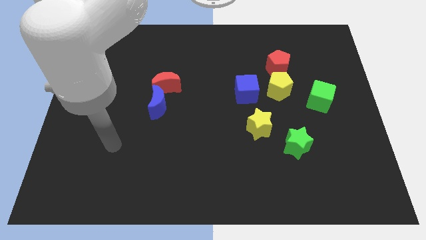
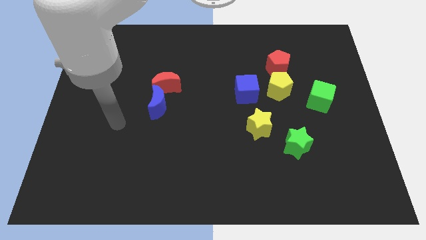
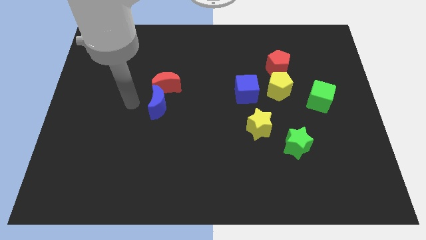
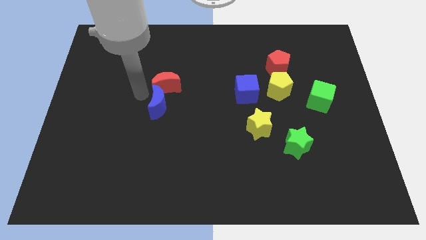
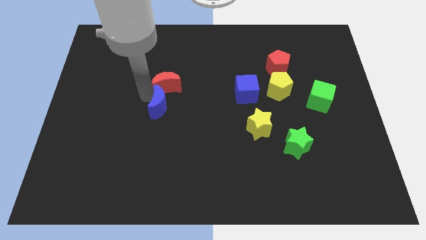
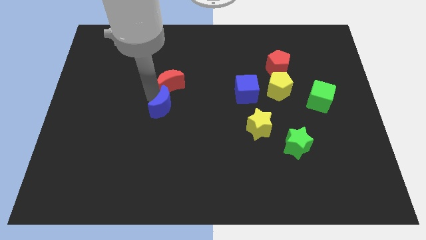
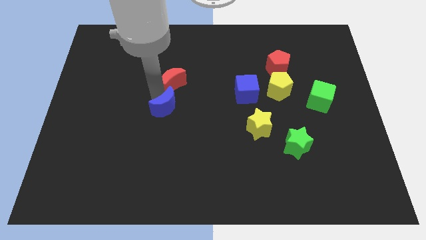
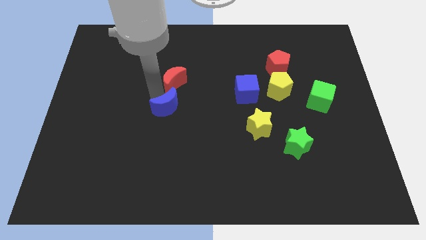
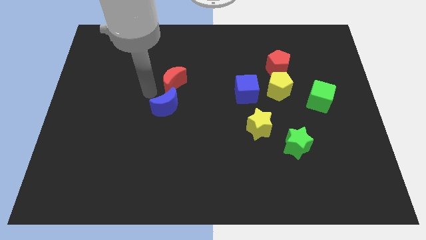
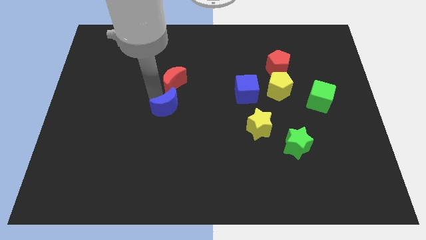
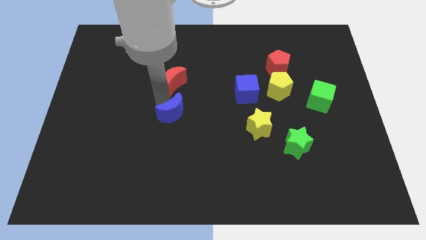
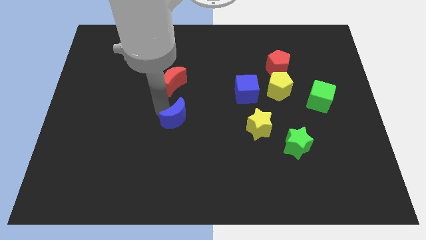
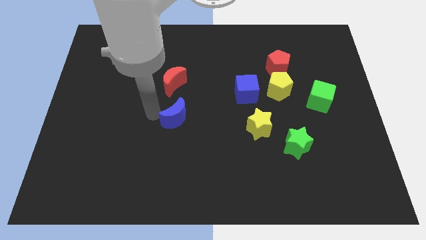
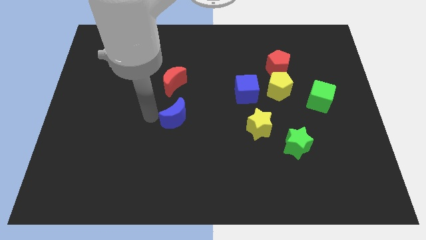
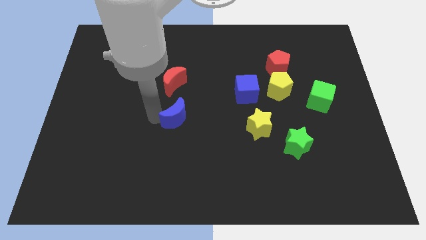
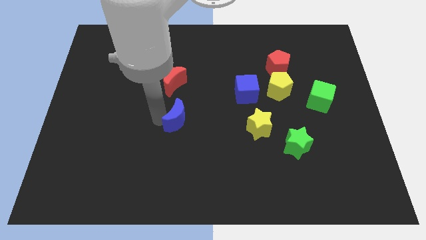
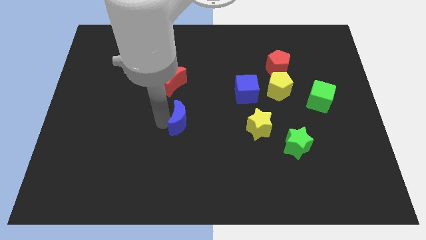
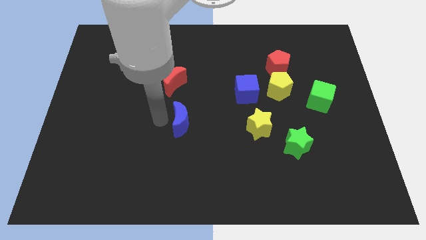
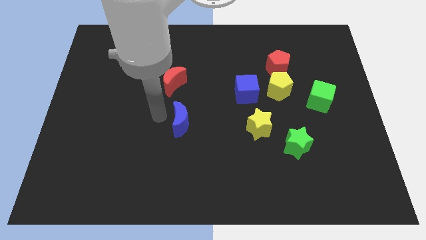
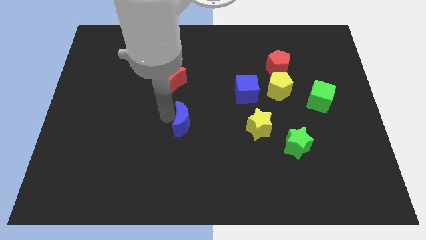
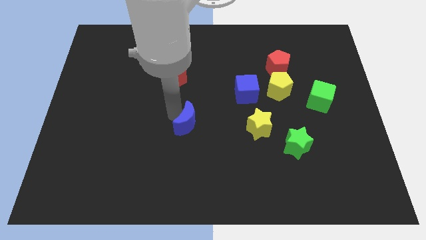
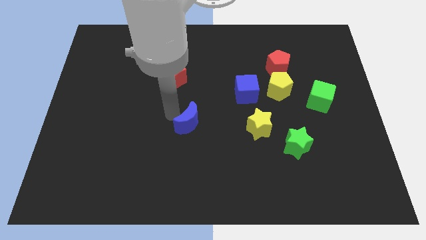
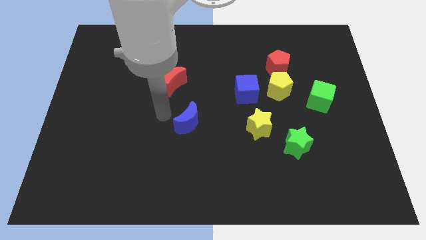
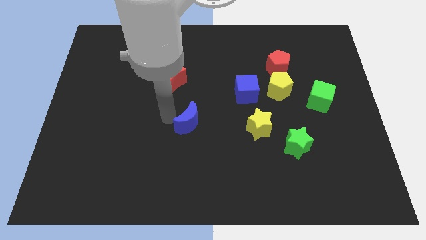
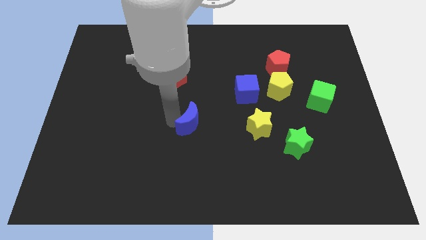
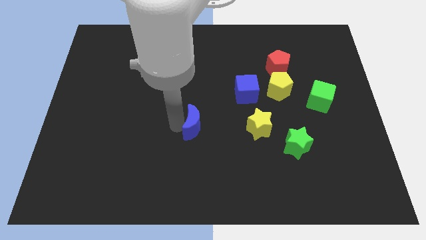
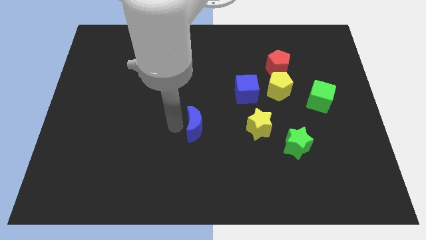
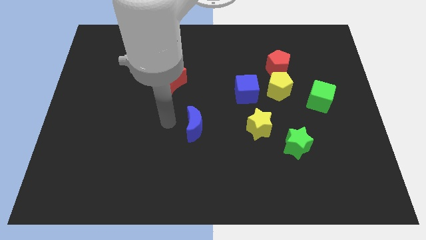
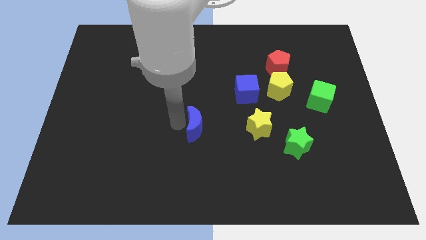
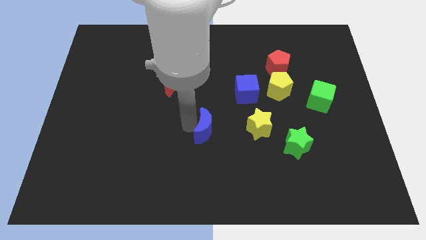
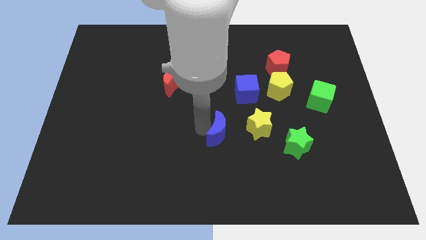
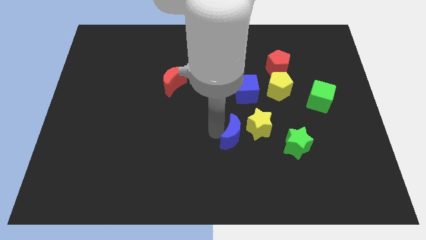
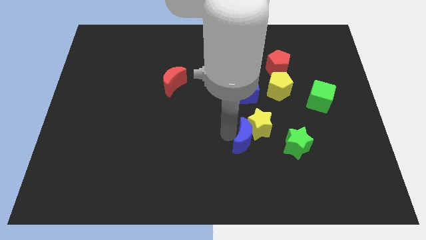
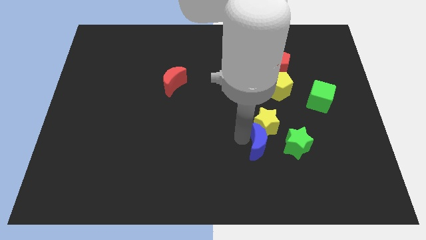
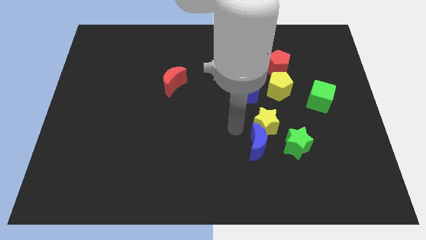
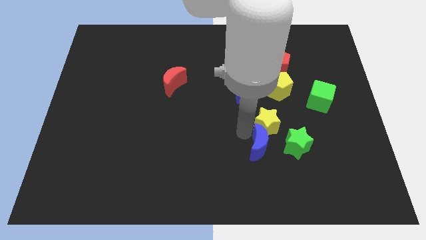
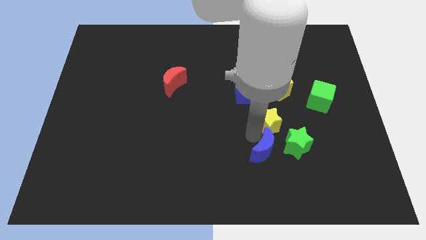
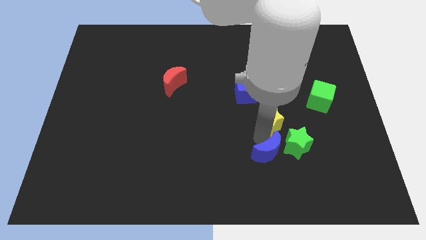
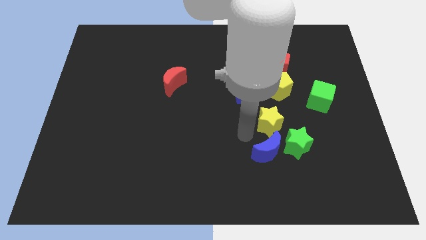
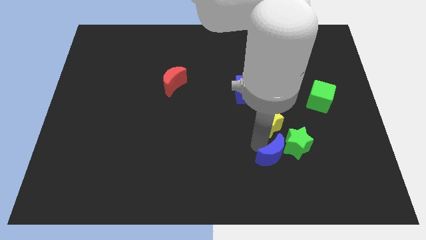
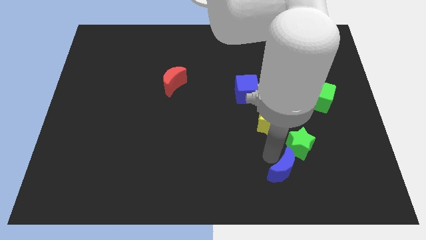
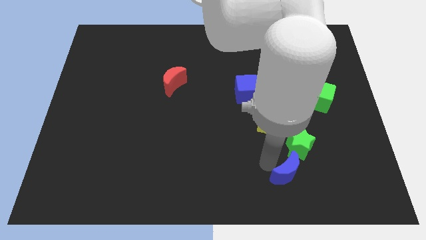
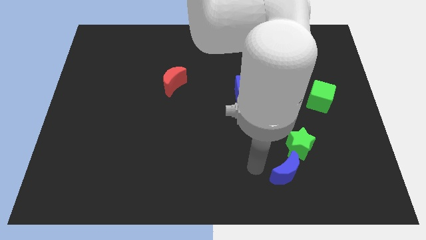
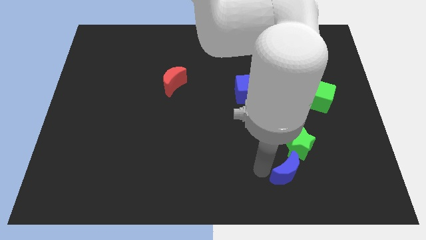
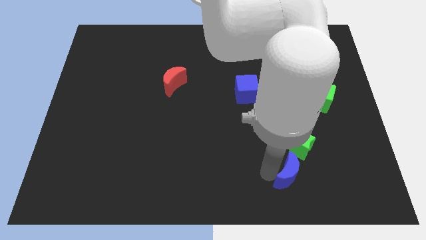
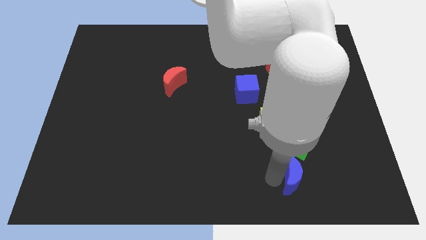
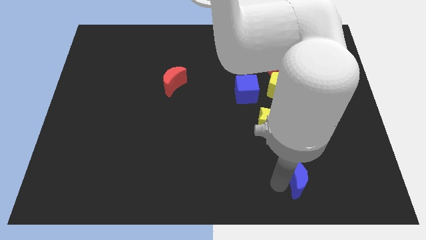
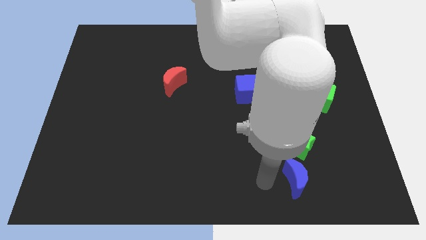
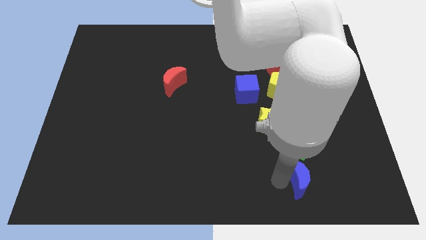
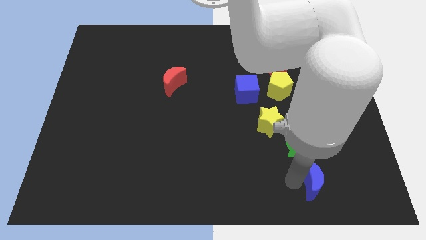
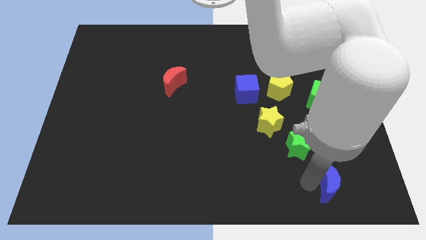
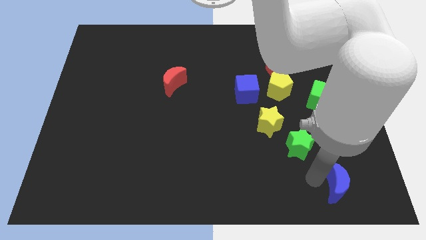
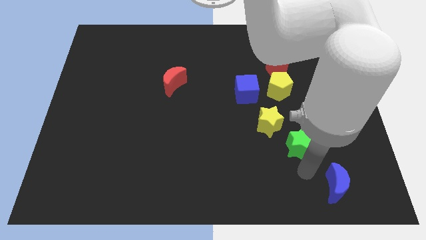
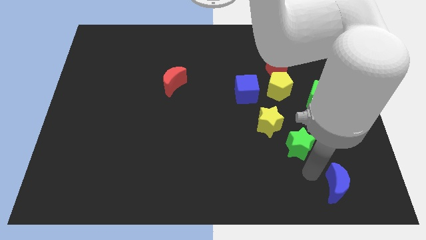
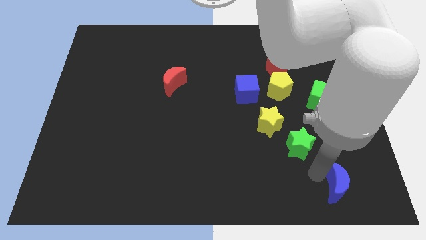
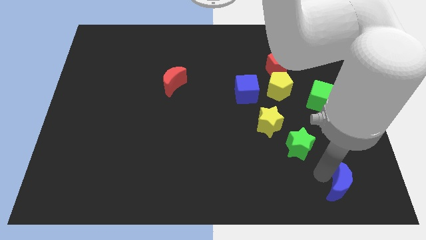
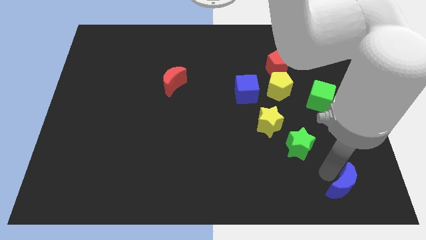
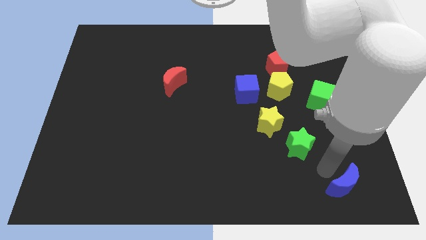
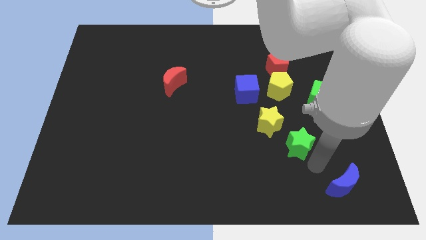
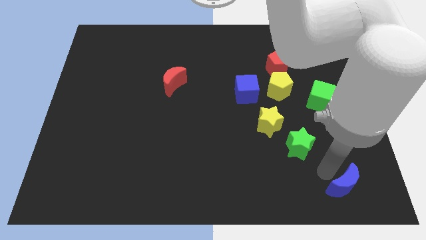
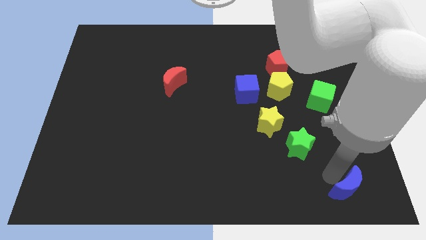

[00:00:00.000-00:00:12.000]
move the blue moon to the bottom right of the board

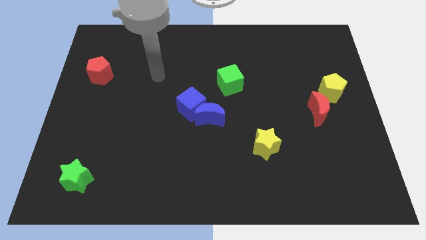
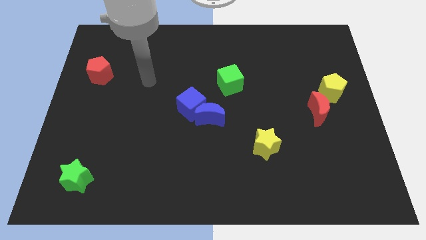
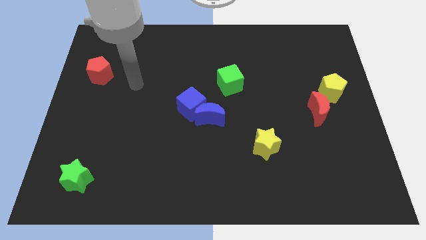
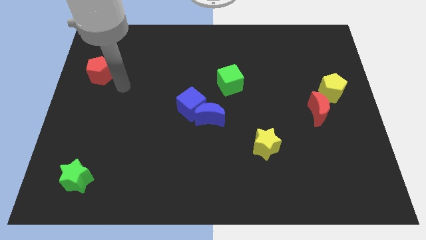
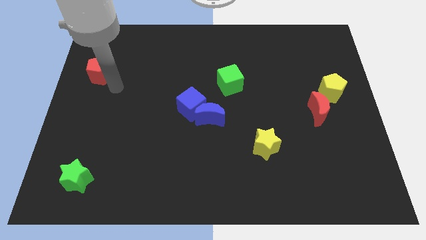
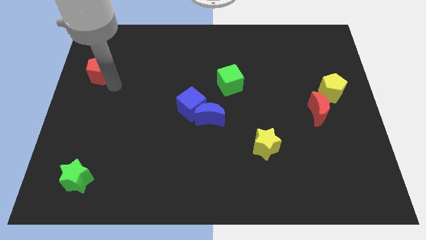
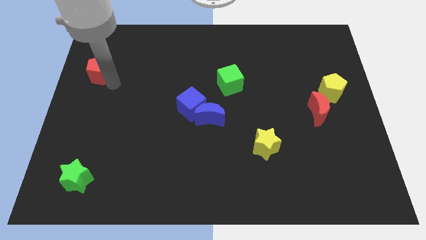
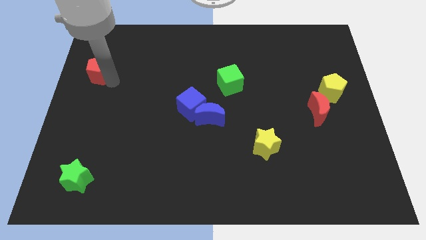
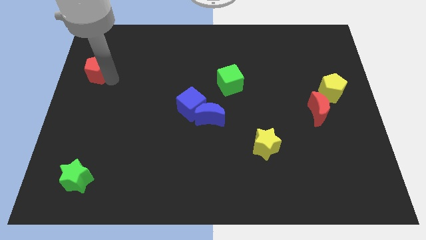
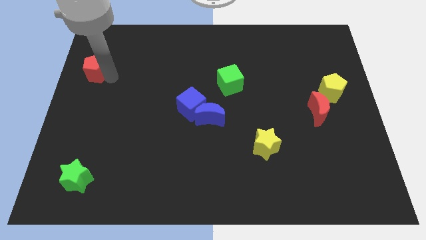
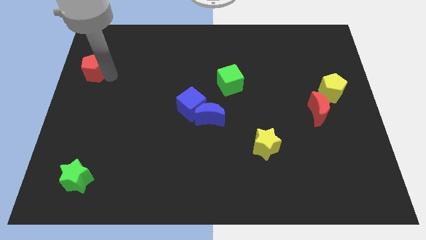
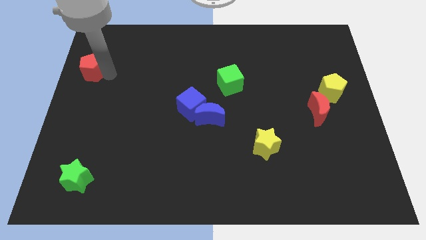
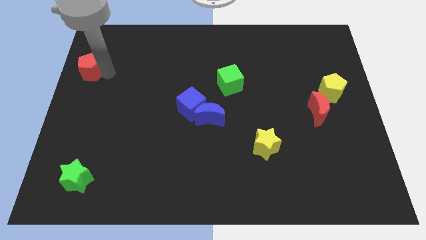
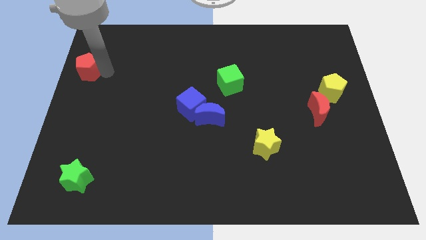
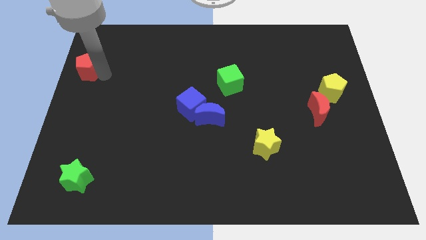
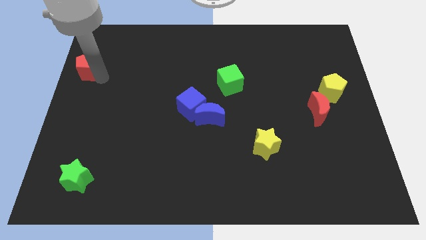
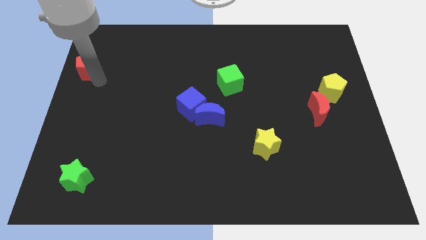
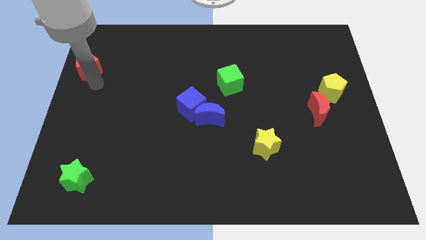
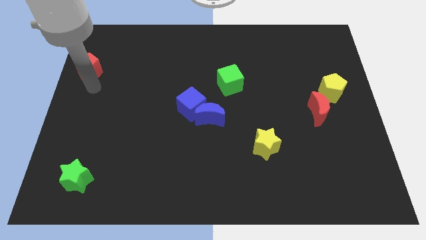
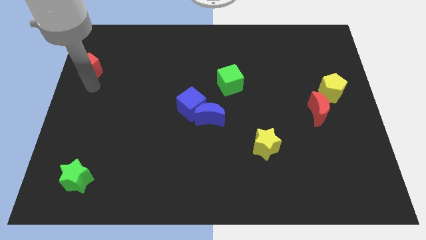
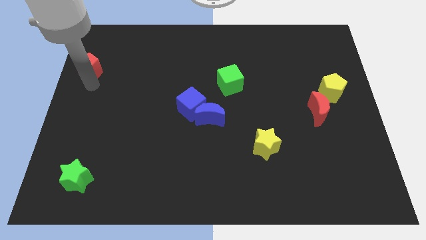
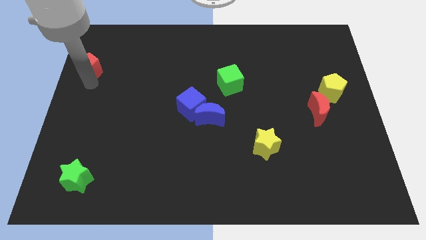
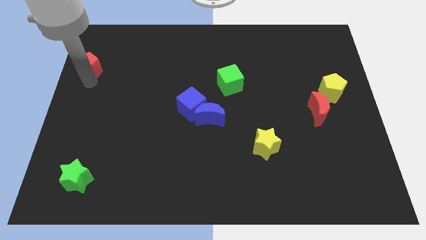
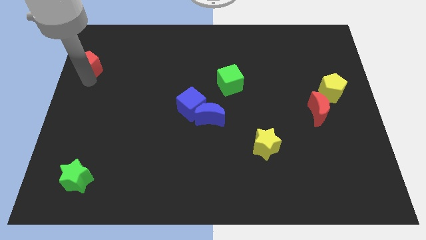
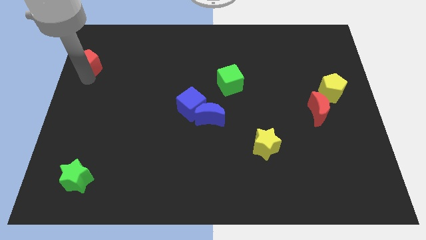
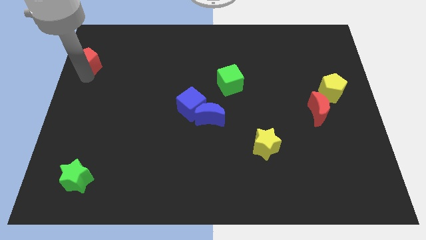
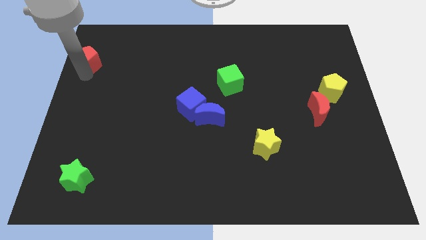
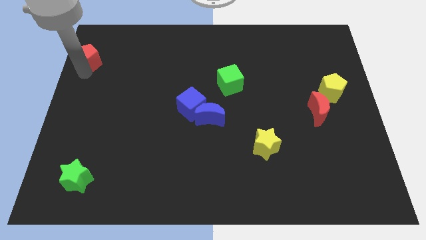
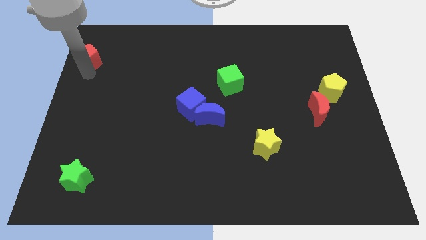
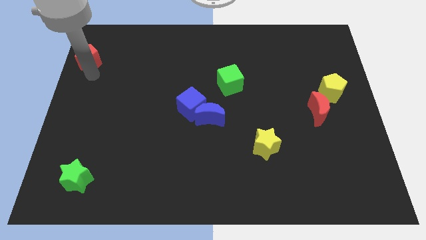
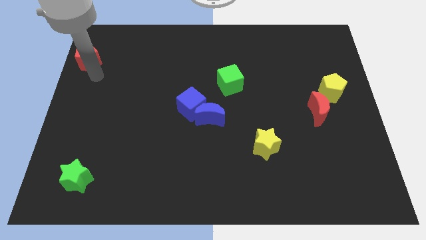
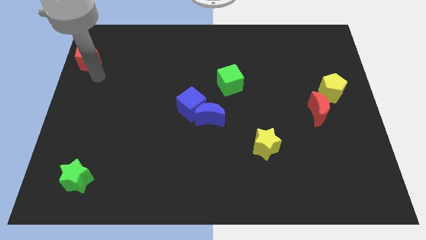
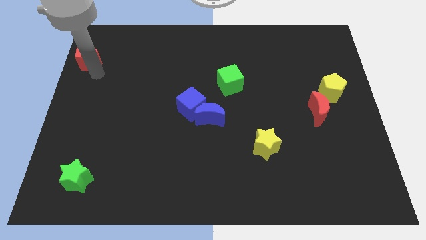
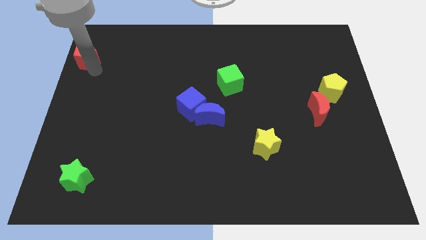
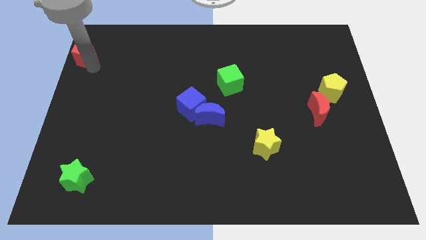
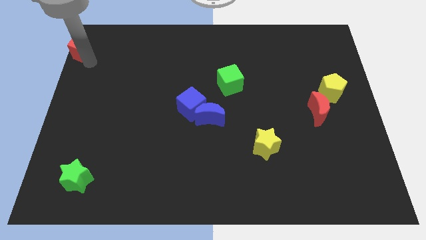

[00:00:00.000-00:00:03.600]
put the red pentagon to the upper left corner
